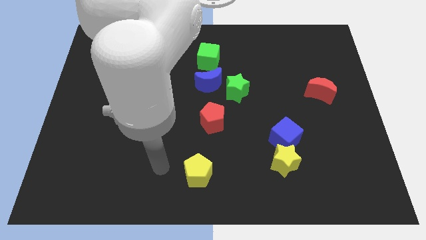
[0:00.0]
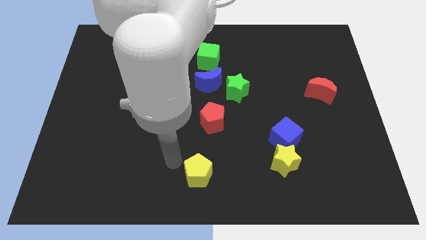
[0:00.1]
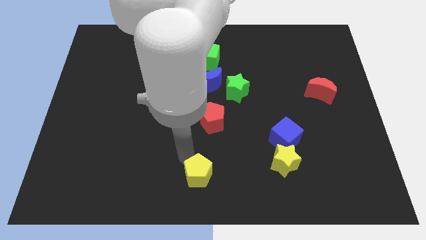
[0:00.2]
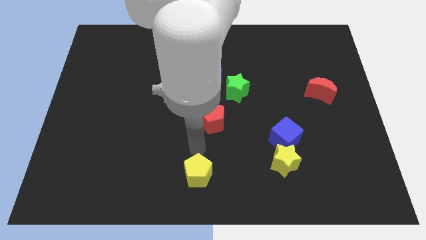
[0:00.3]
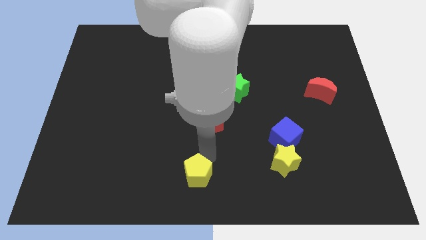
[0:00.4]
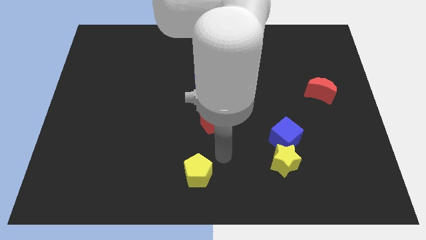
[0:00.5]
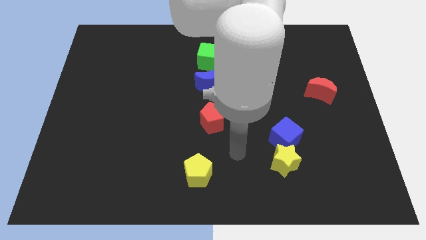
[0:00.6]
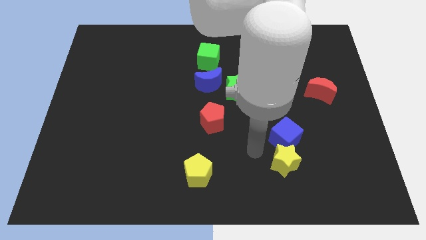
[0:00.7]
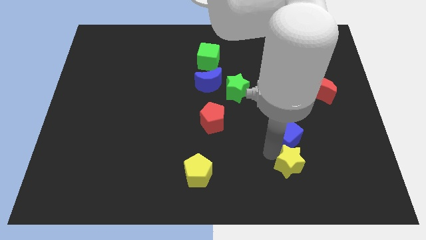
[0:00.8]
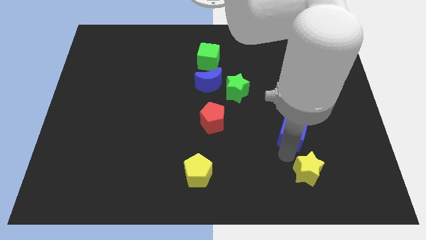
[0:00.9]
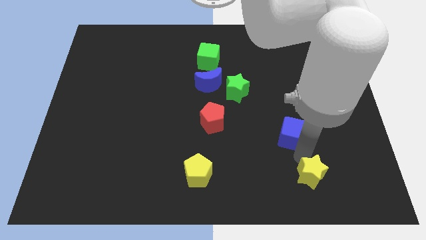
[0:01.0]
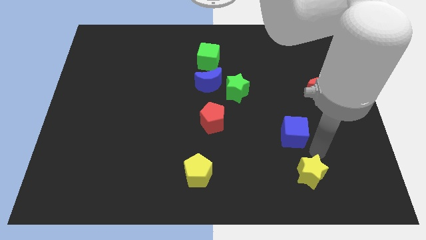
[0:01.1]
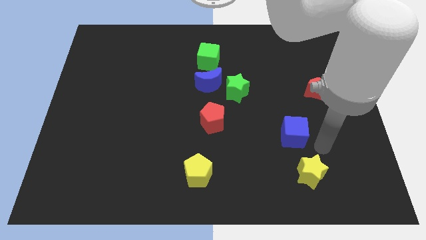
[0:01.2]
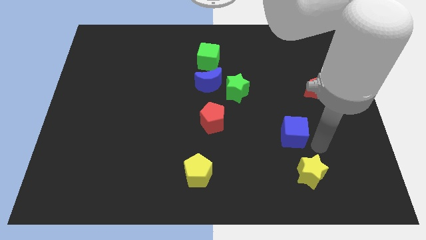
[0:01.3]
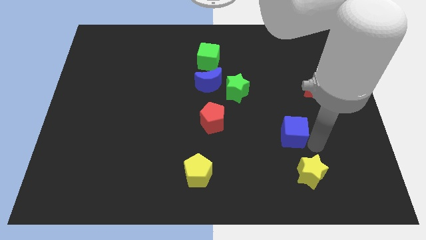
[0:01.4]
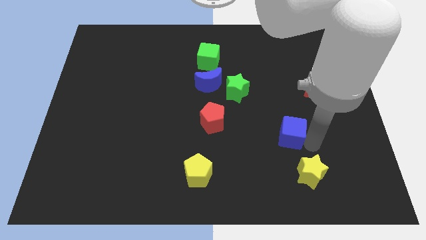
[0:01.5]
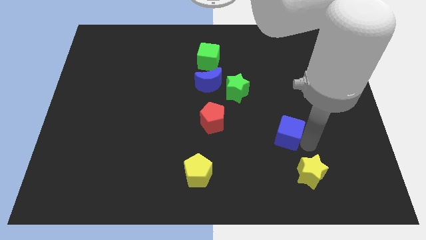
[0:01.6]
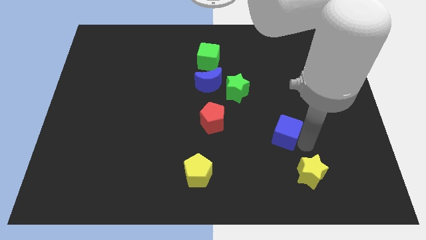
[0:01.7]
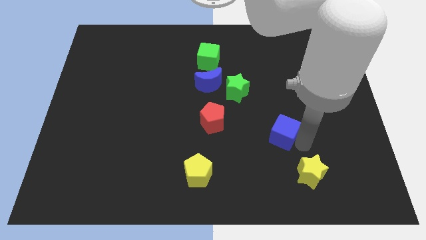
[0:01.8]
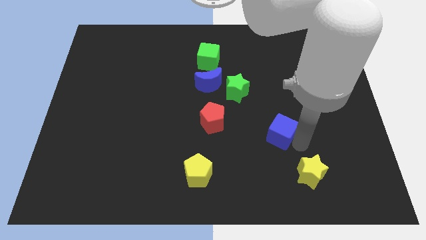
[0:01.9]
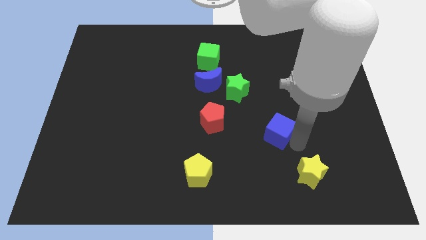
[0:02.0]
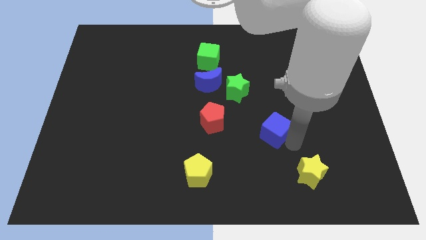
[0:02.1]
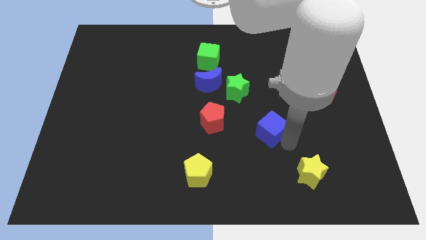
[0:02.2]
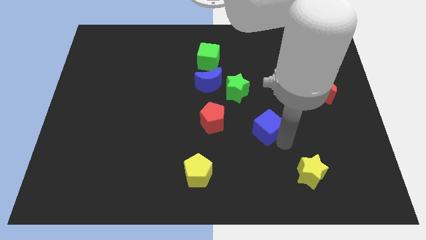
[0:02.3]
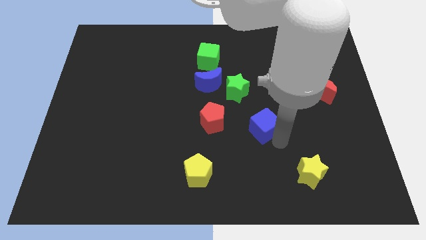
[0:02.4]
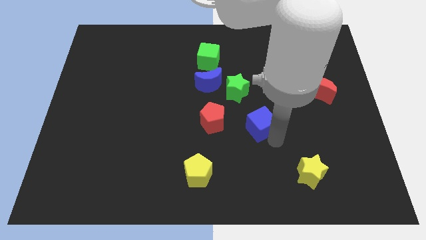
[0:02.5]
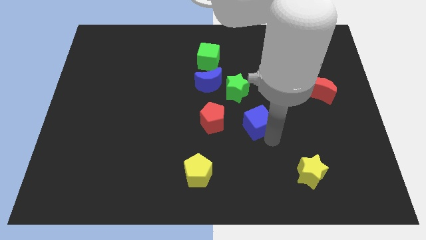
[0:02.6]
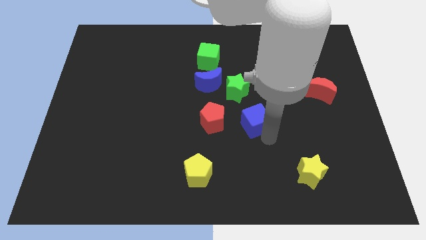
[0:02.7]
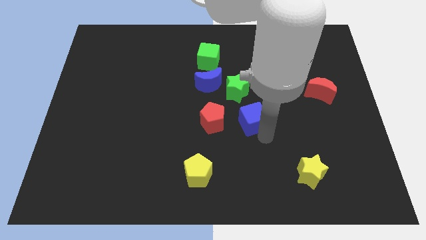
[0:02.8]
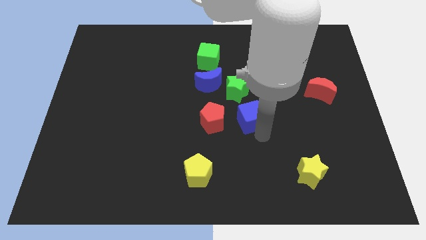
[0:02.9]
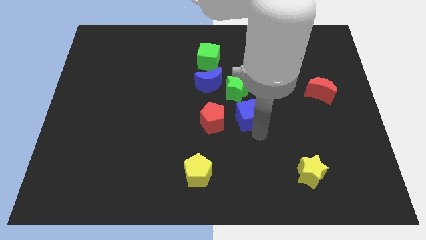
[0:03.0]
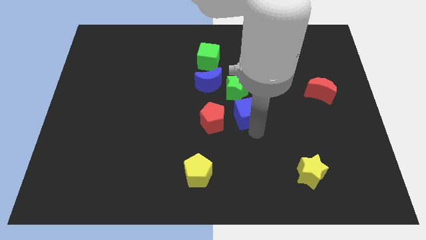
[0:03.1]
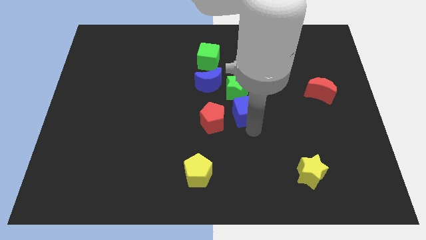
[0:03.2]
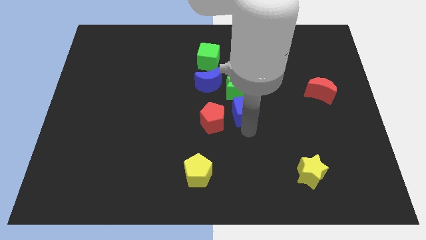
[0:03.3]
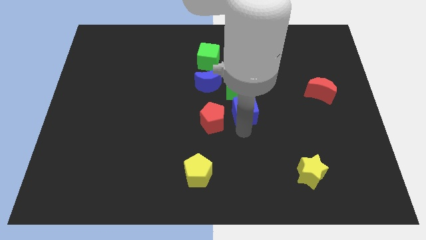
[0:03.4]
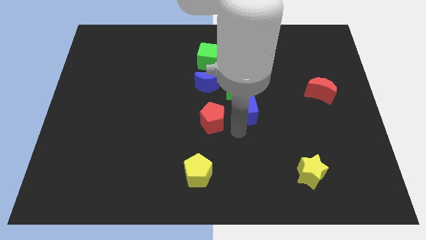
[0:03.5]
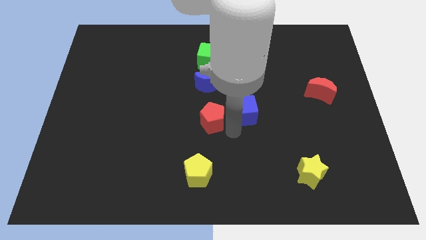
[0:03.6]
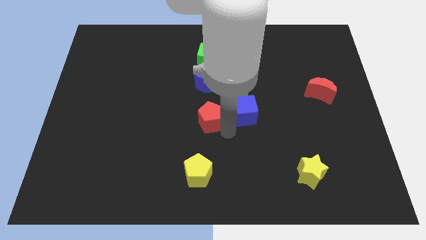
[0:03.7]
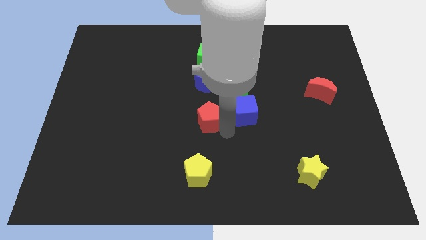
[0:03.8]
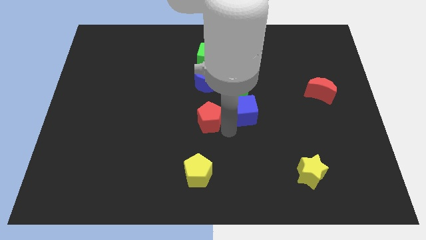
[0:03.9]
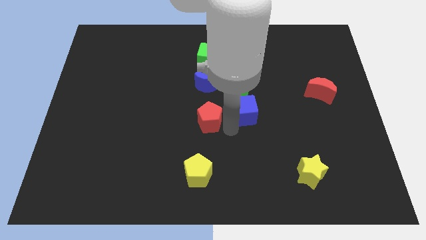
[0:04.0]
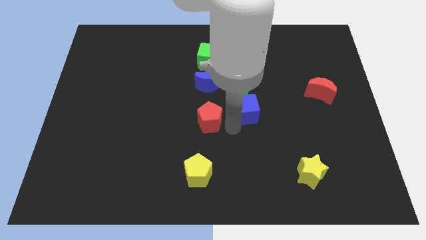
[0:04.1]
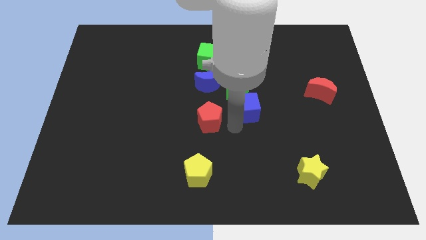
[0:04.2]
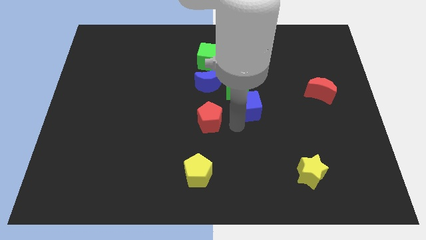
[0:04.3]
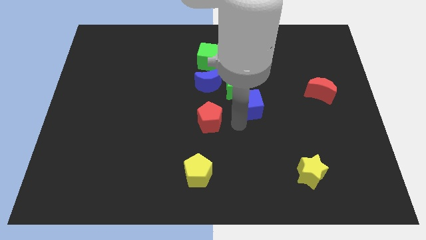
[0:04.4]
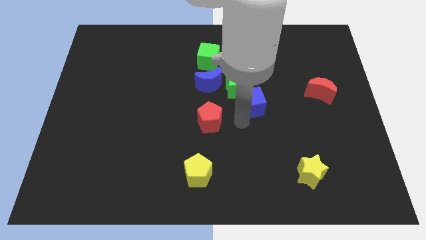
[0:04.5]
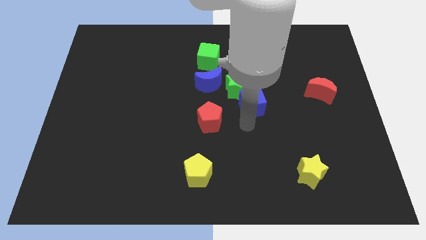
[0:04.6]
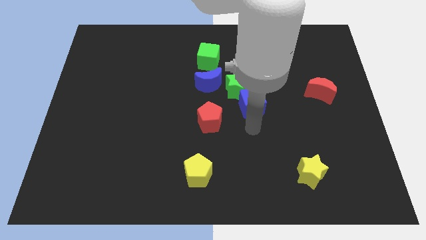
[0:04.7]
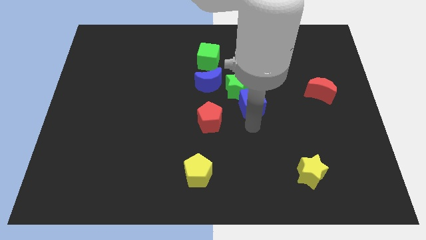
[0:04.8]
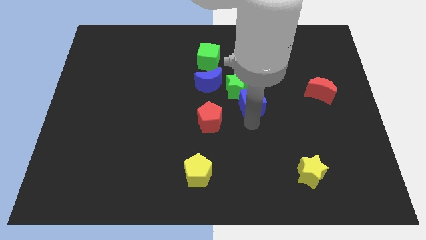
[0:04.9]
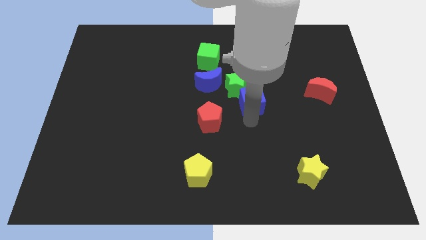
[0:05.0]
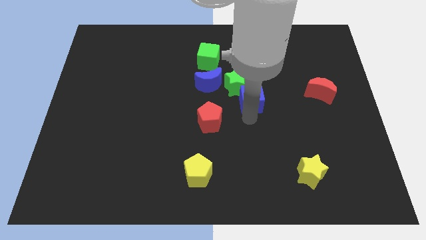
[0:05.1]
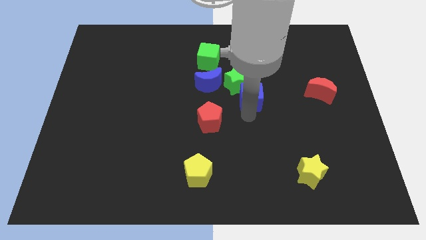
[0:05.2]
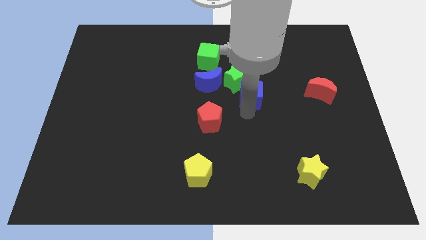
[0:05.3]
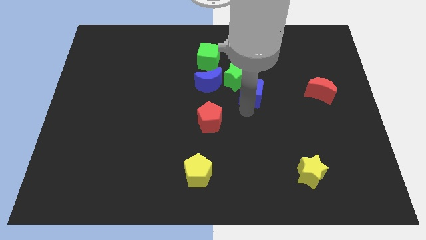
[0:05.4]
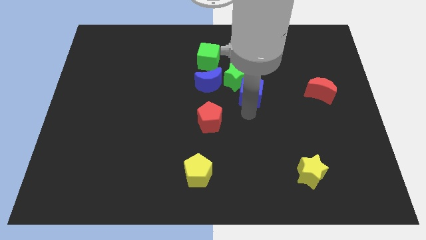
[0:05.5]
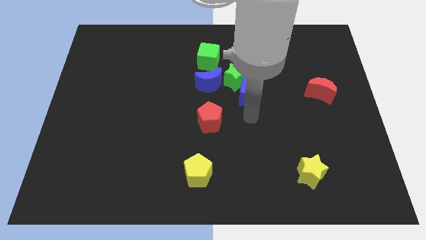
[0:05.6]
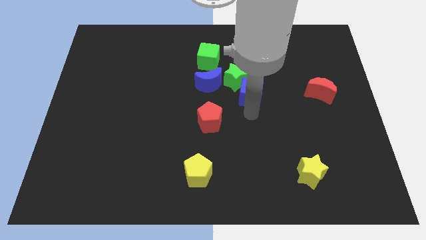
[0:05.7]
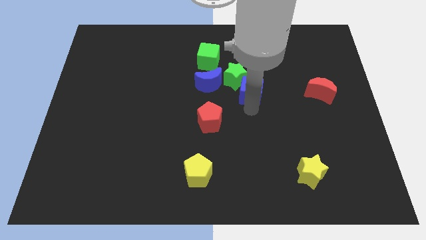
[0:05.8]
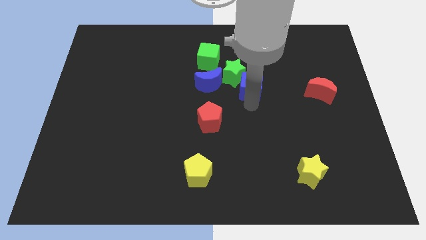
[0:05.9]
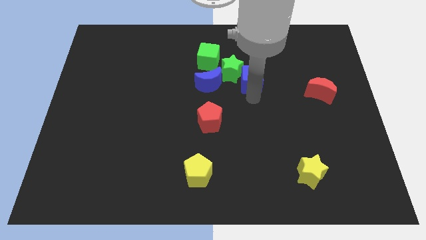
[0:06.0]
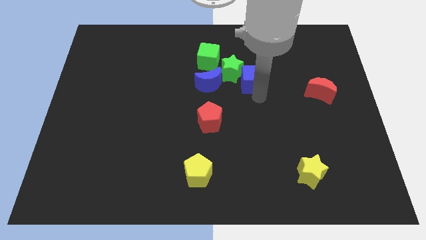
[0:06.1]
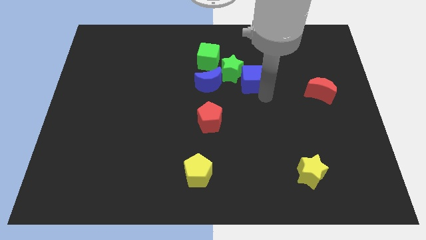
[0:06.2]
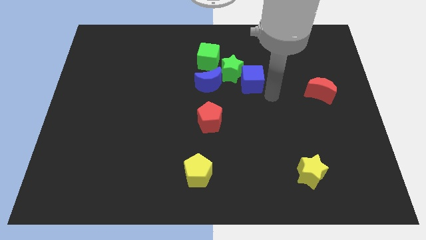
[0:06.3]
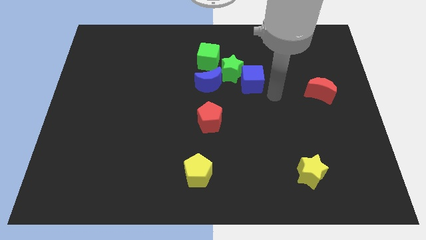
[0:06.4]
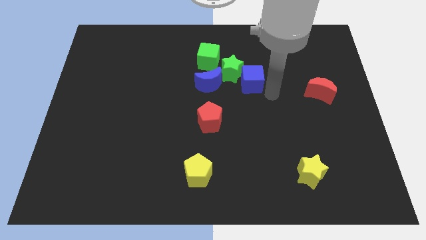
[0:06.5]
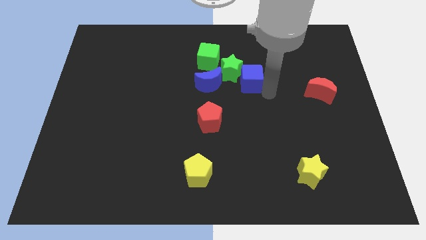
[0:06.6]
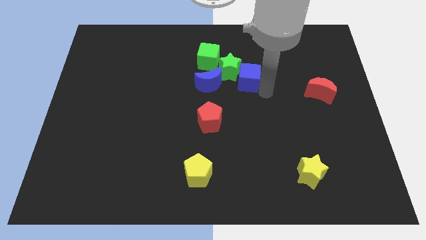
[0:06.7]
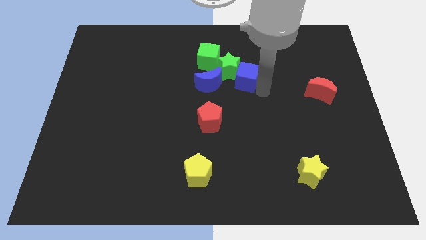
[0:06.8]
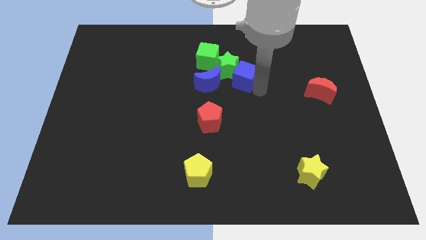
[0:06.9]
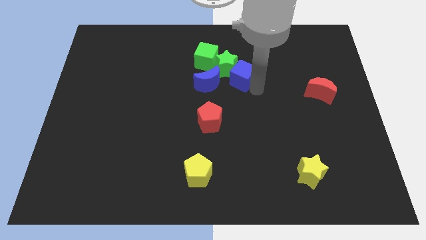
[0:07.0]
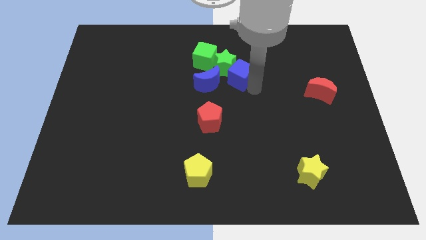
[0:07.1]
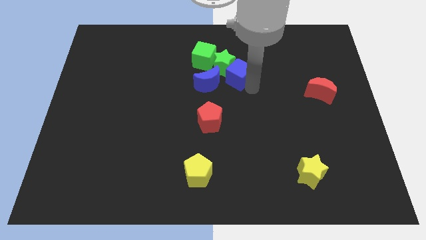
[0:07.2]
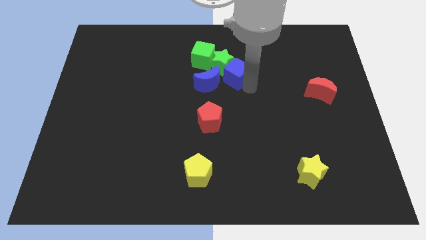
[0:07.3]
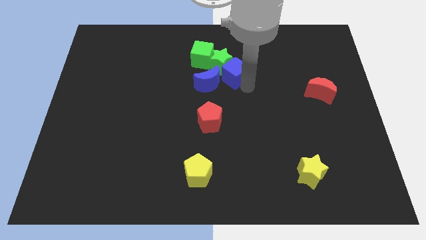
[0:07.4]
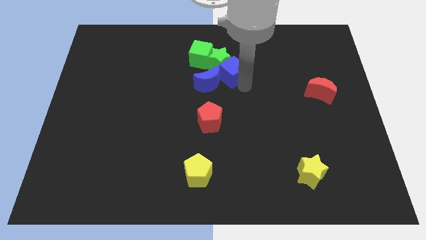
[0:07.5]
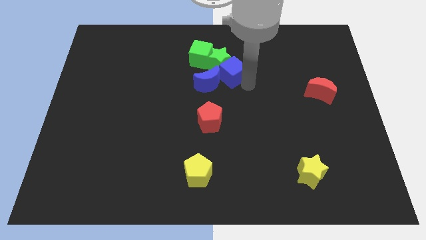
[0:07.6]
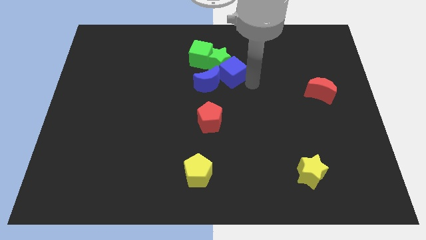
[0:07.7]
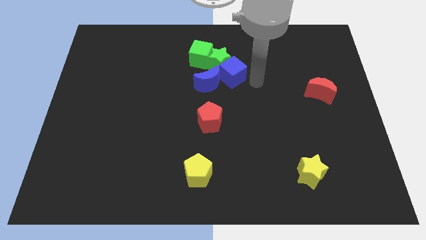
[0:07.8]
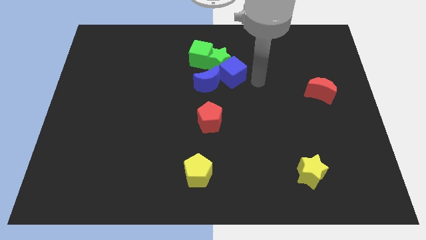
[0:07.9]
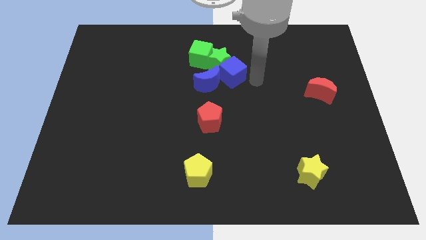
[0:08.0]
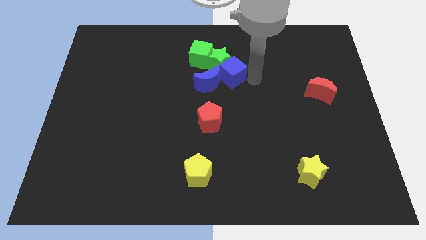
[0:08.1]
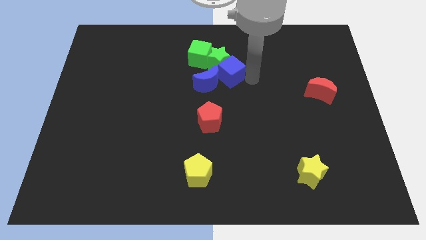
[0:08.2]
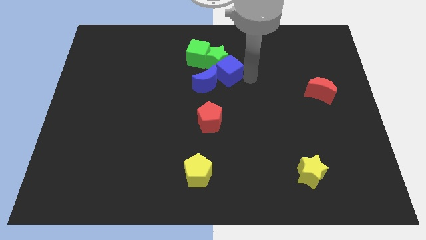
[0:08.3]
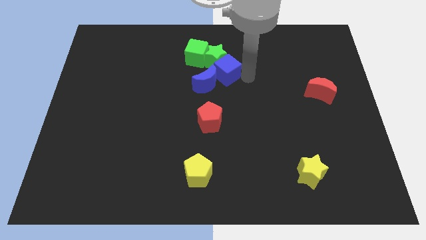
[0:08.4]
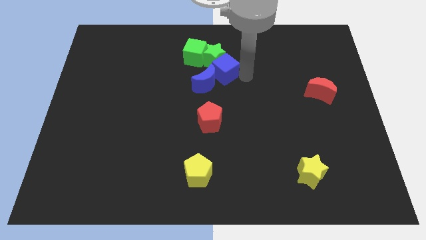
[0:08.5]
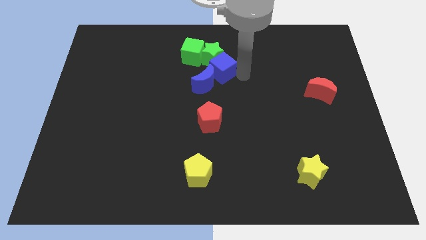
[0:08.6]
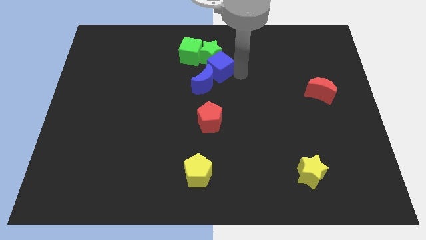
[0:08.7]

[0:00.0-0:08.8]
put the blue cube above the red pentagon
